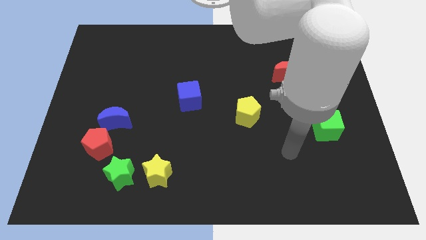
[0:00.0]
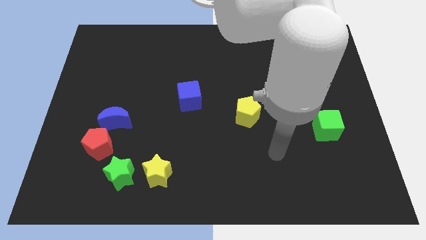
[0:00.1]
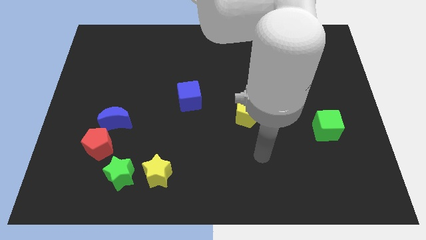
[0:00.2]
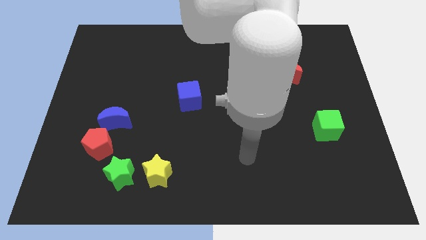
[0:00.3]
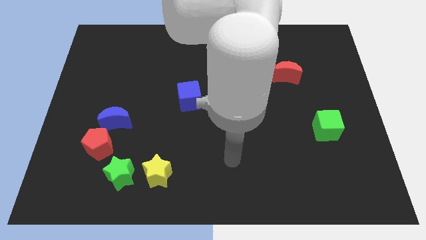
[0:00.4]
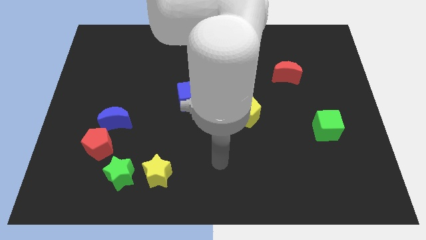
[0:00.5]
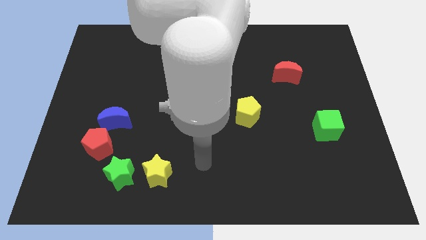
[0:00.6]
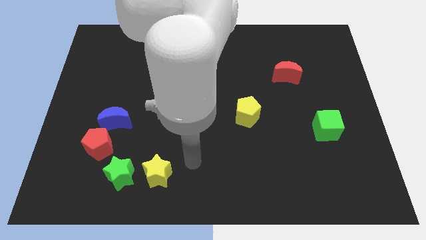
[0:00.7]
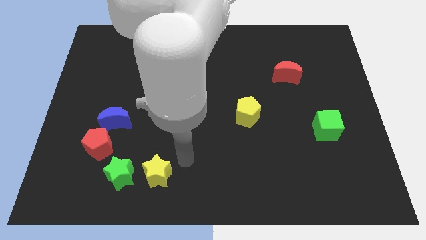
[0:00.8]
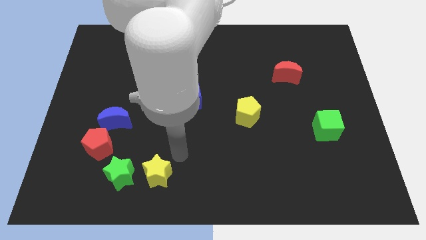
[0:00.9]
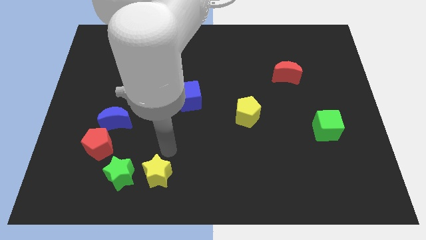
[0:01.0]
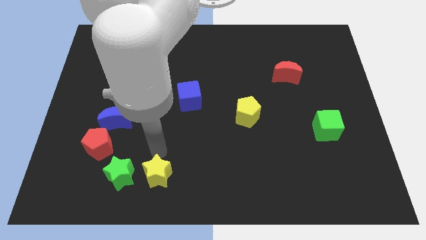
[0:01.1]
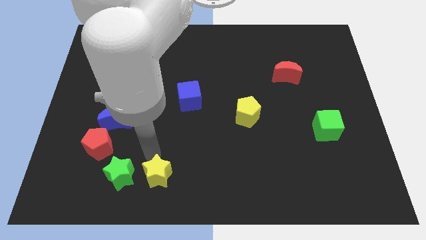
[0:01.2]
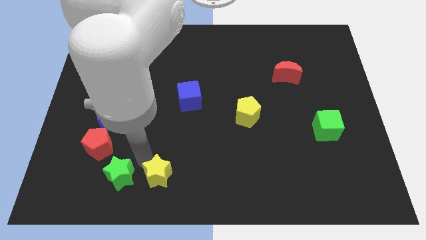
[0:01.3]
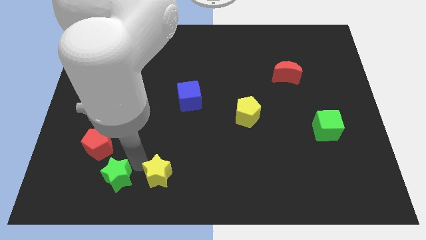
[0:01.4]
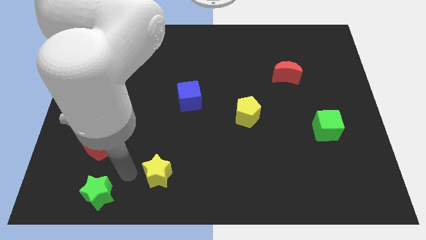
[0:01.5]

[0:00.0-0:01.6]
pull the yellow star apart from the green star

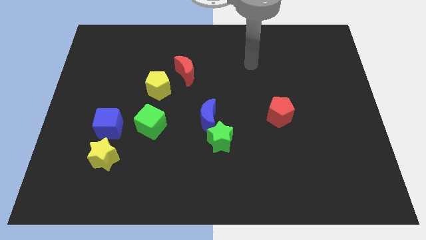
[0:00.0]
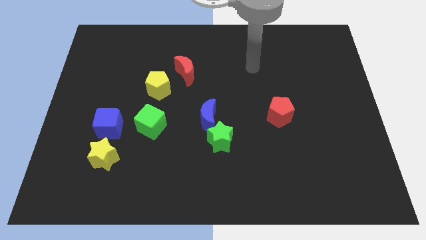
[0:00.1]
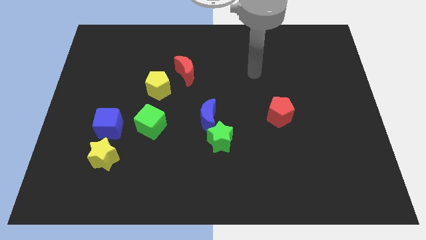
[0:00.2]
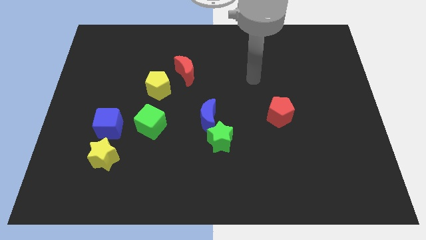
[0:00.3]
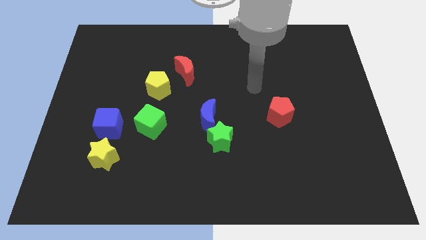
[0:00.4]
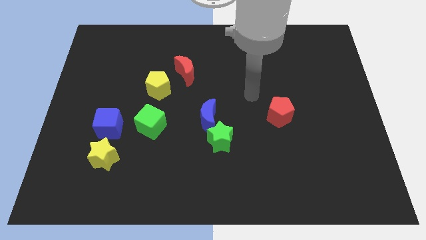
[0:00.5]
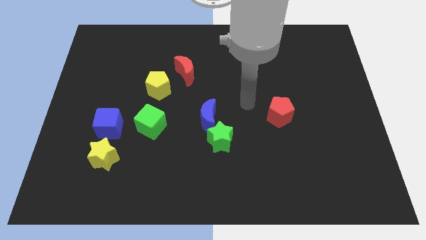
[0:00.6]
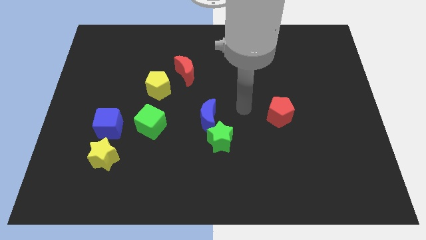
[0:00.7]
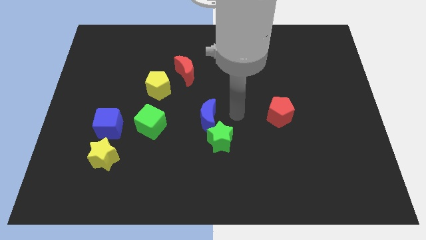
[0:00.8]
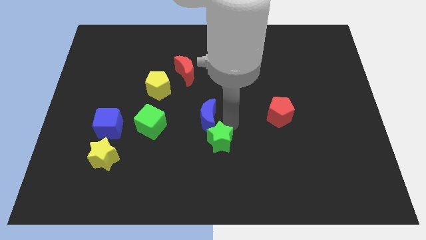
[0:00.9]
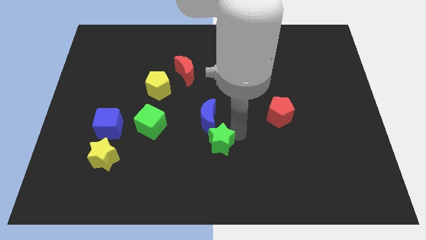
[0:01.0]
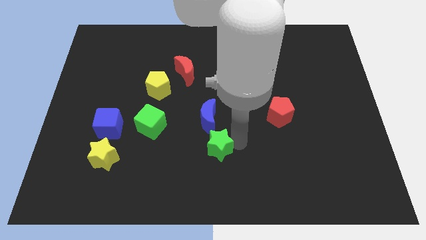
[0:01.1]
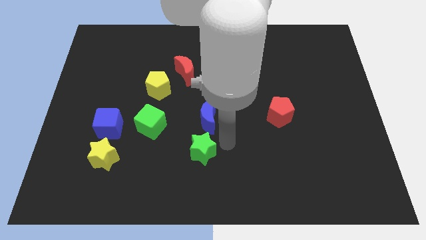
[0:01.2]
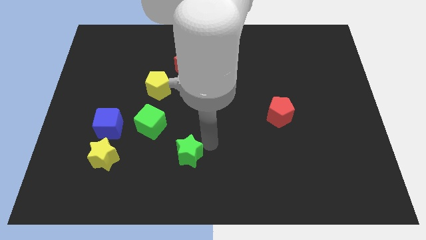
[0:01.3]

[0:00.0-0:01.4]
move the blue moon away from the green star

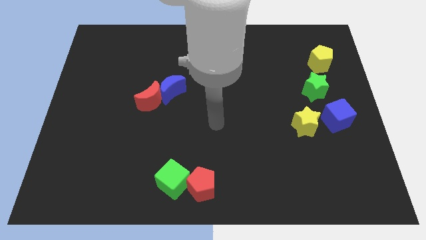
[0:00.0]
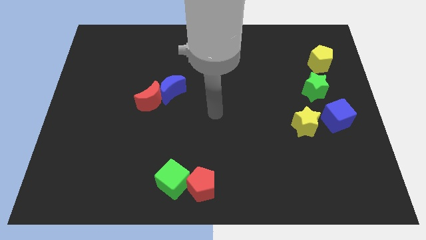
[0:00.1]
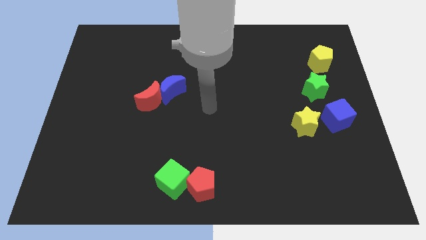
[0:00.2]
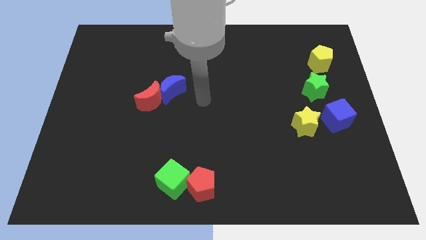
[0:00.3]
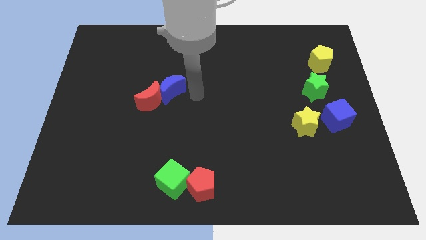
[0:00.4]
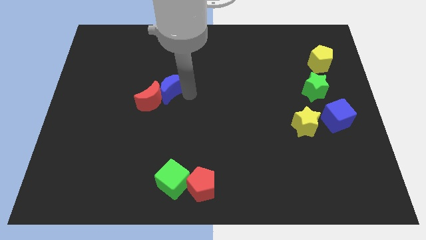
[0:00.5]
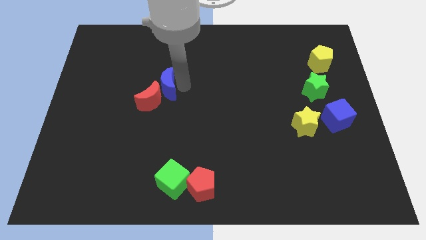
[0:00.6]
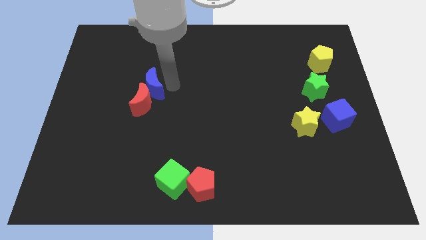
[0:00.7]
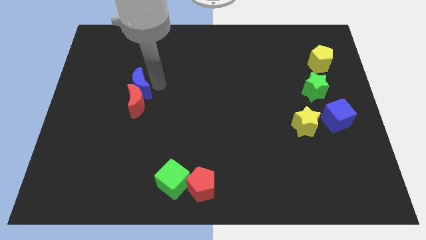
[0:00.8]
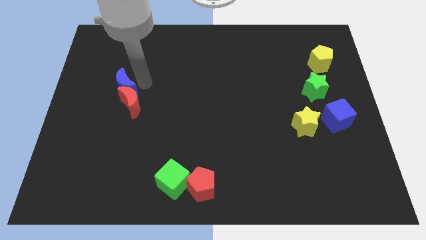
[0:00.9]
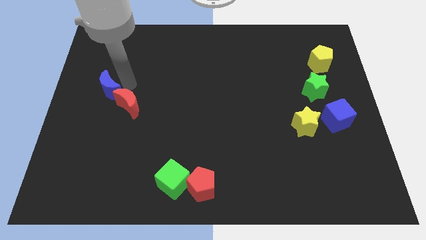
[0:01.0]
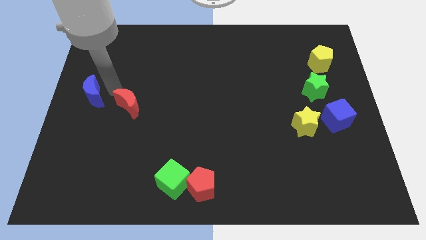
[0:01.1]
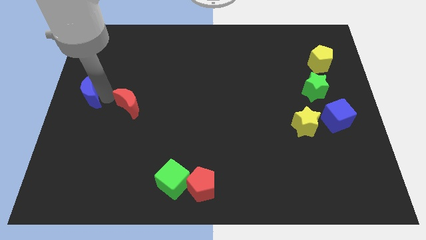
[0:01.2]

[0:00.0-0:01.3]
pull the red moon apart from the blue moon

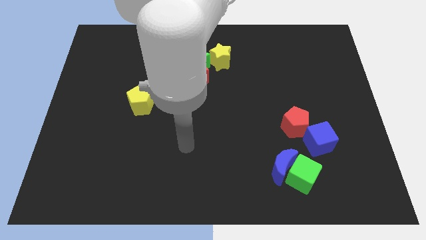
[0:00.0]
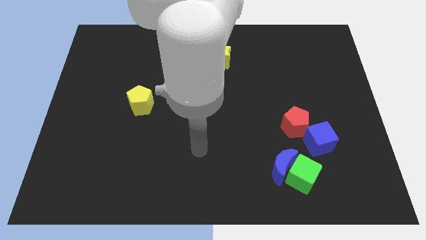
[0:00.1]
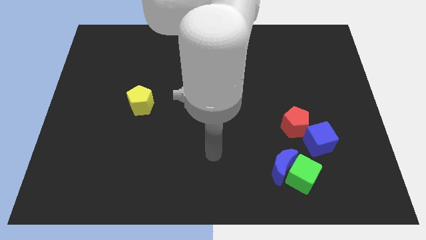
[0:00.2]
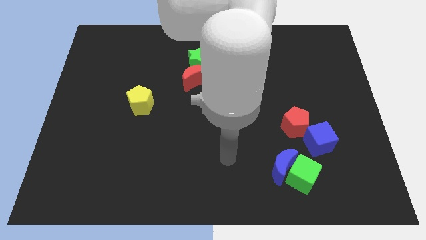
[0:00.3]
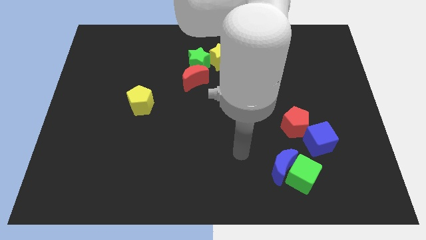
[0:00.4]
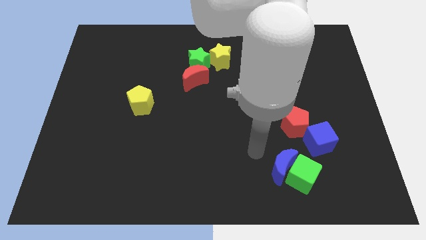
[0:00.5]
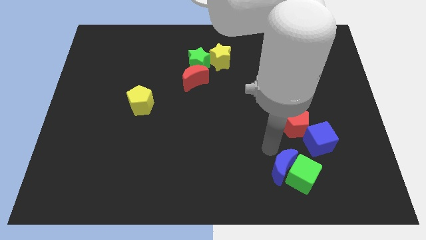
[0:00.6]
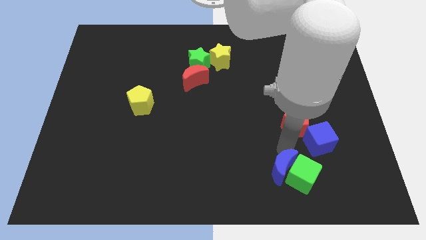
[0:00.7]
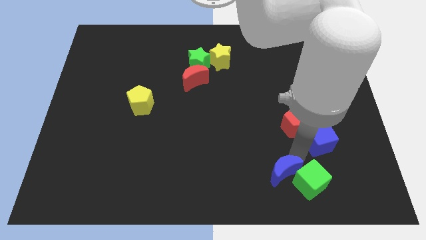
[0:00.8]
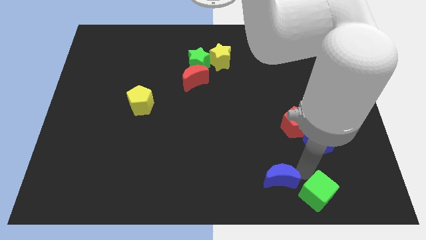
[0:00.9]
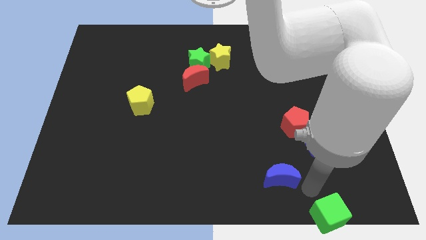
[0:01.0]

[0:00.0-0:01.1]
separate the blue moon from the green cube

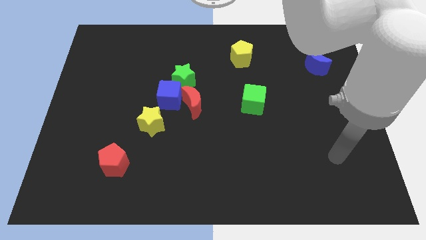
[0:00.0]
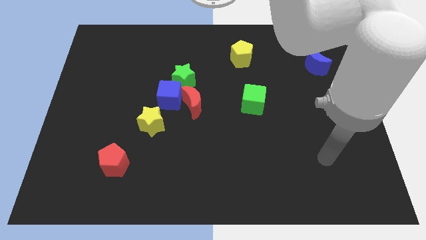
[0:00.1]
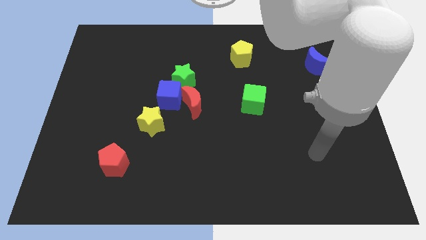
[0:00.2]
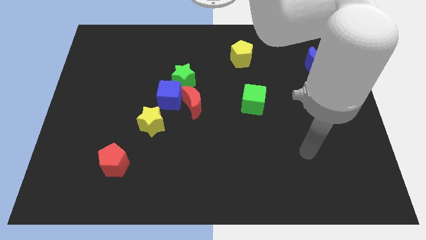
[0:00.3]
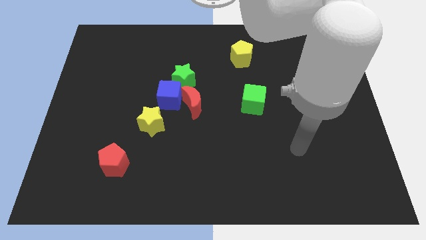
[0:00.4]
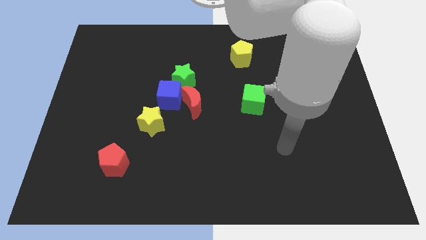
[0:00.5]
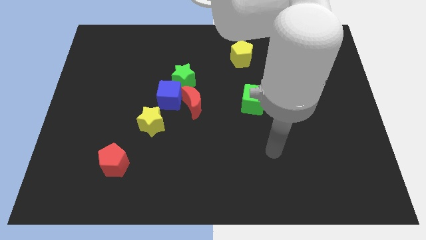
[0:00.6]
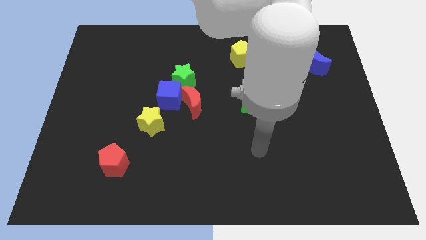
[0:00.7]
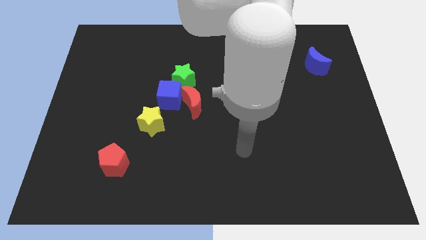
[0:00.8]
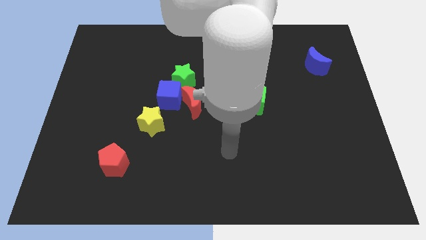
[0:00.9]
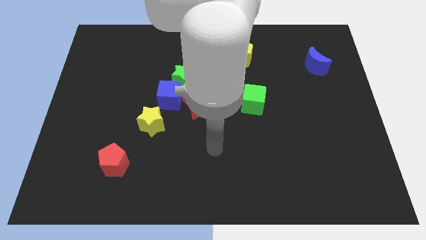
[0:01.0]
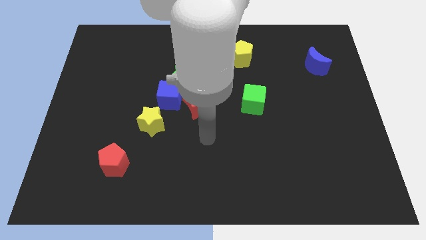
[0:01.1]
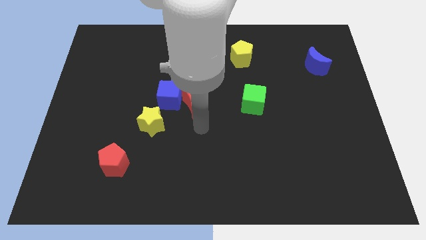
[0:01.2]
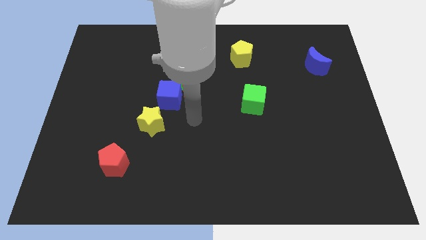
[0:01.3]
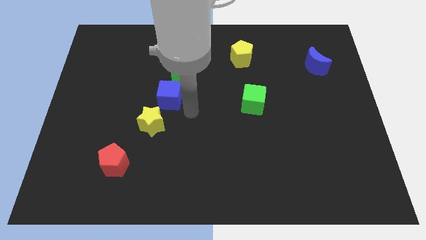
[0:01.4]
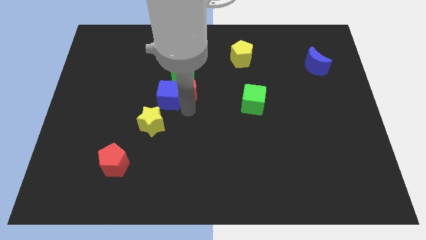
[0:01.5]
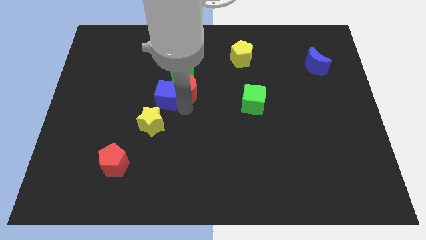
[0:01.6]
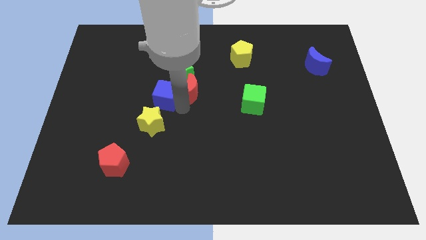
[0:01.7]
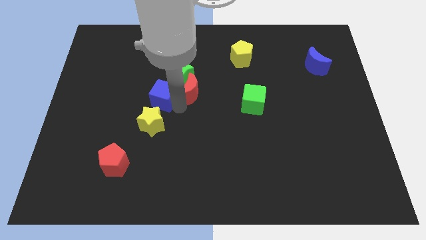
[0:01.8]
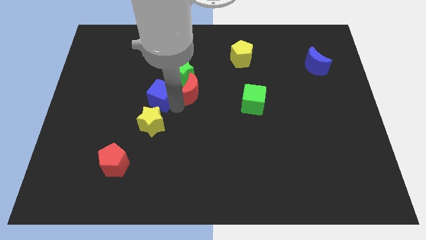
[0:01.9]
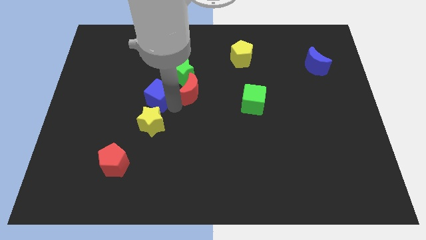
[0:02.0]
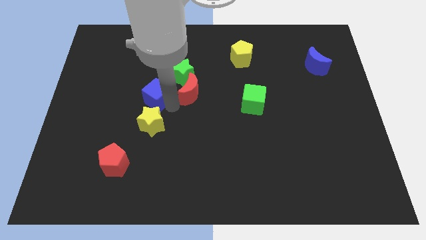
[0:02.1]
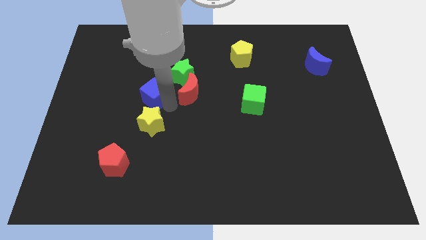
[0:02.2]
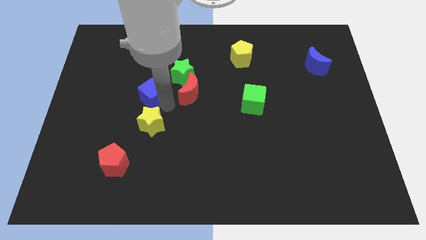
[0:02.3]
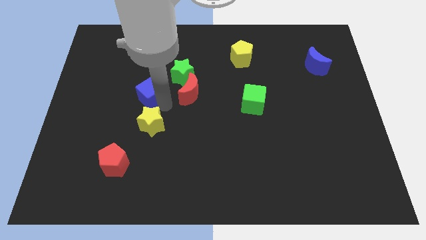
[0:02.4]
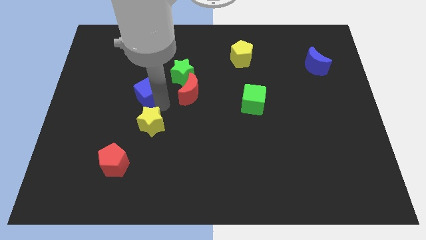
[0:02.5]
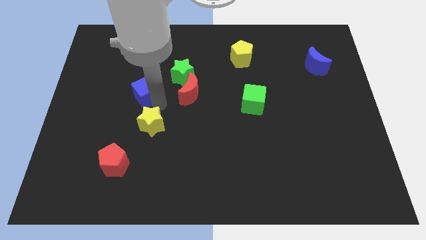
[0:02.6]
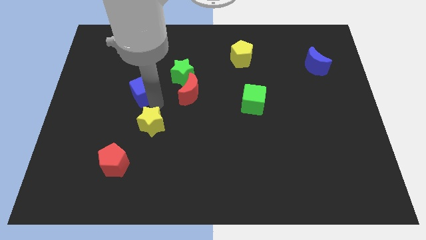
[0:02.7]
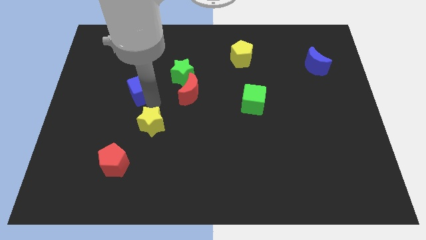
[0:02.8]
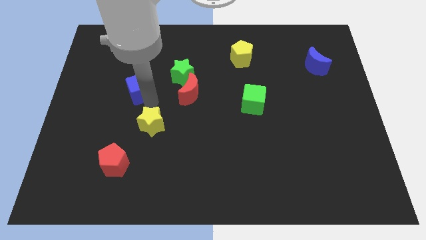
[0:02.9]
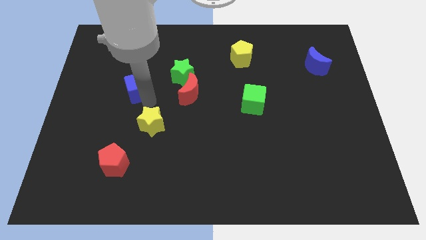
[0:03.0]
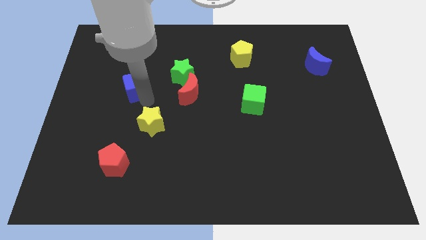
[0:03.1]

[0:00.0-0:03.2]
pull the blue cube apart from the red moon, green star, and yellow star

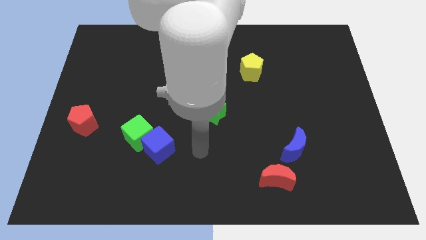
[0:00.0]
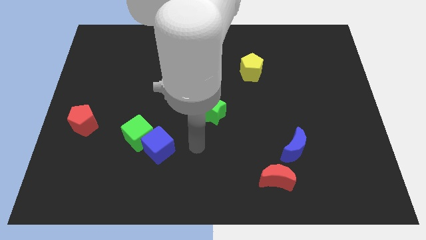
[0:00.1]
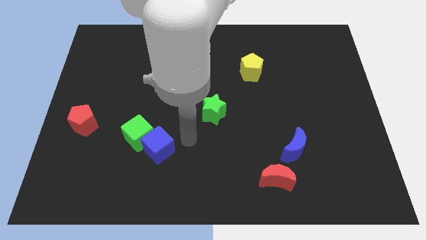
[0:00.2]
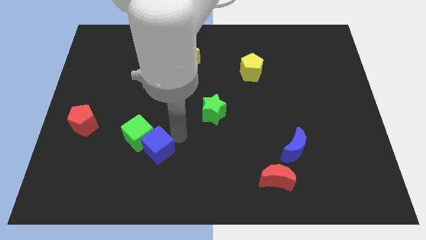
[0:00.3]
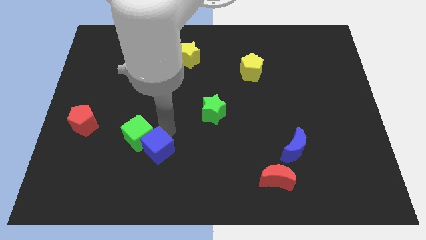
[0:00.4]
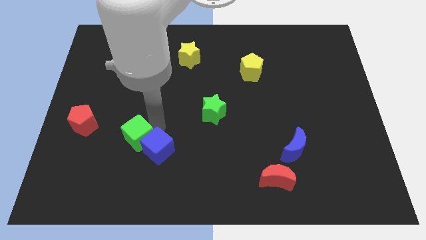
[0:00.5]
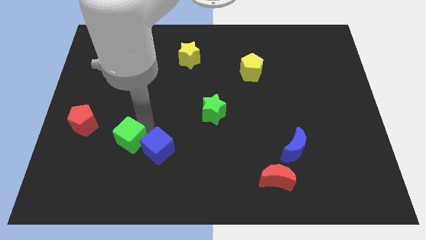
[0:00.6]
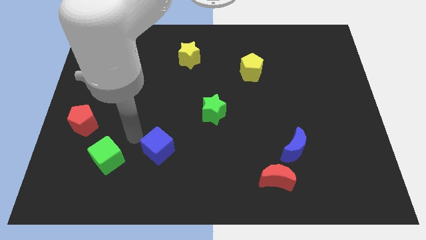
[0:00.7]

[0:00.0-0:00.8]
pull the blue cube apart from the green cube
